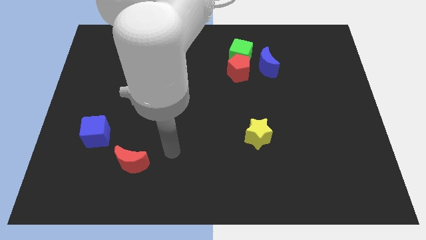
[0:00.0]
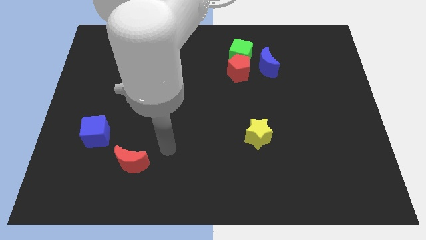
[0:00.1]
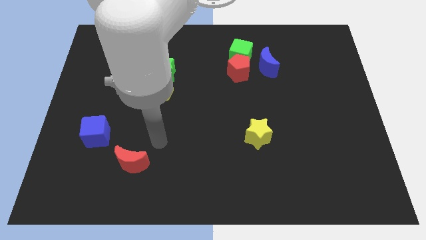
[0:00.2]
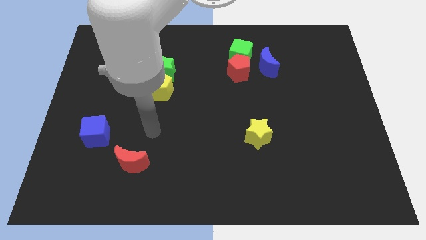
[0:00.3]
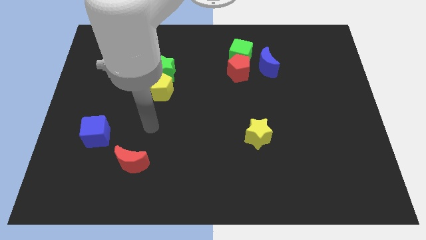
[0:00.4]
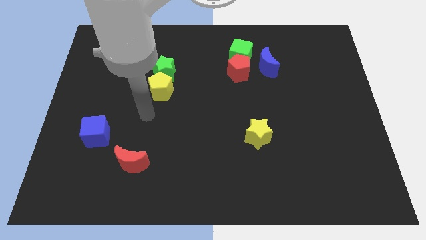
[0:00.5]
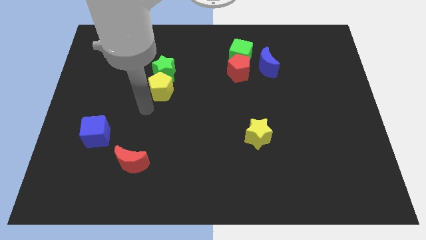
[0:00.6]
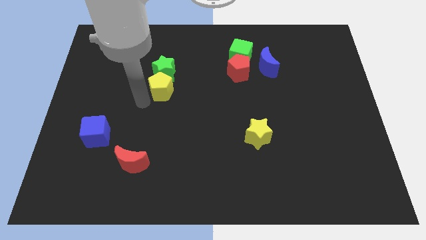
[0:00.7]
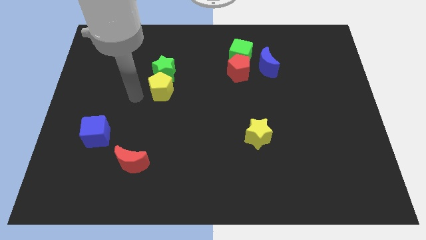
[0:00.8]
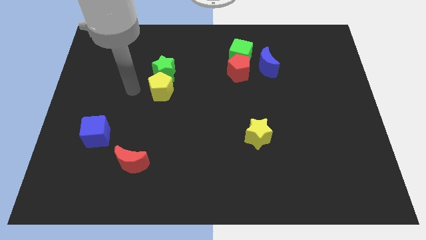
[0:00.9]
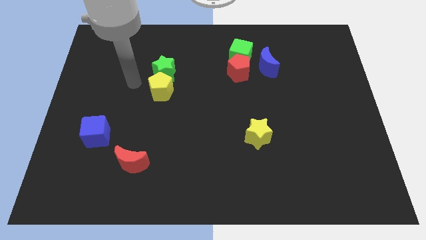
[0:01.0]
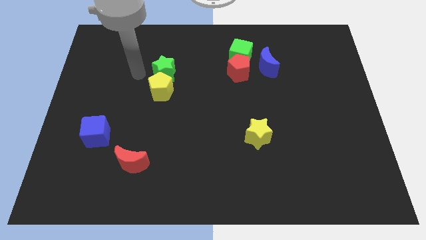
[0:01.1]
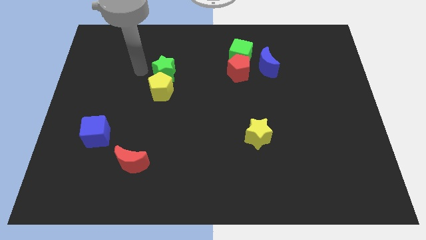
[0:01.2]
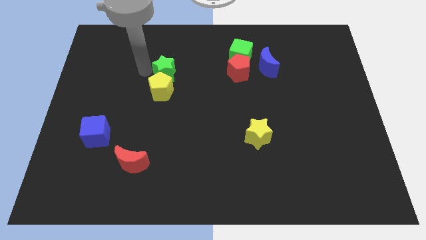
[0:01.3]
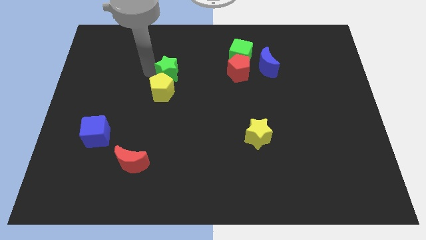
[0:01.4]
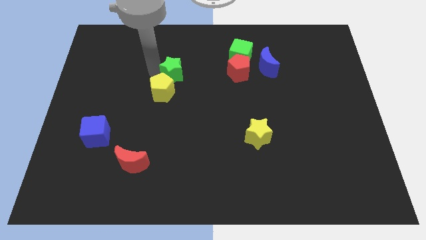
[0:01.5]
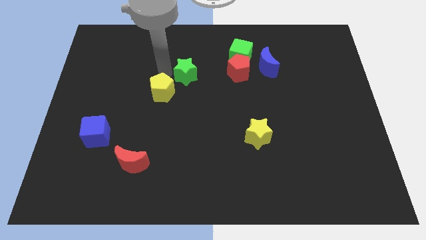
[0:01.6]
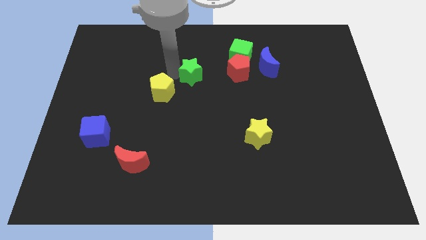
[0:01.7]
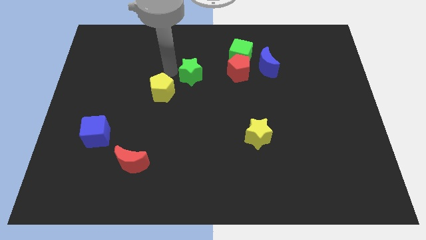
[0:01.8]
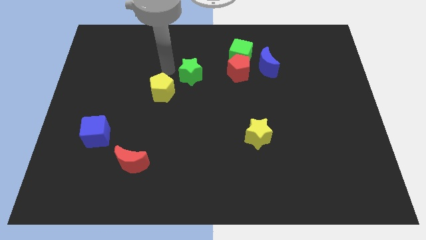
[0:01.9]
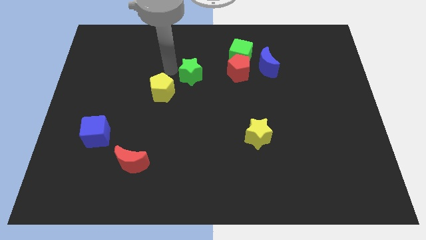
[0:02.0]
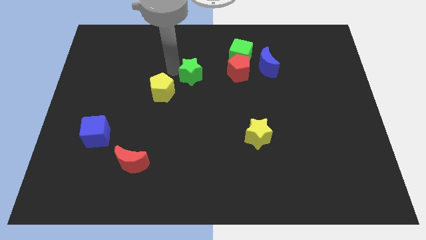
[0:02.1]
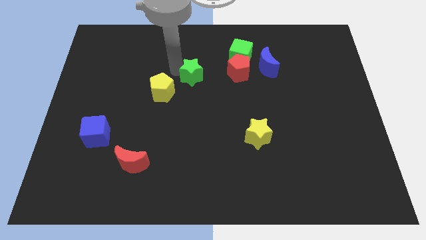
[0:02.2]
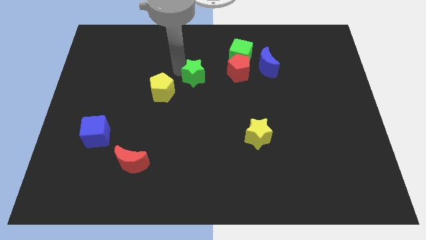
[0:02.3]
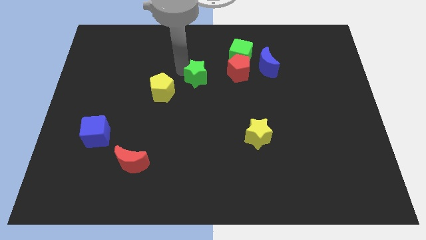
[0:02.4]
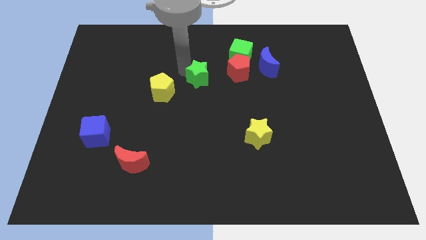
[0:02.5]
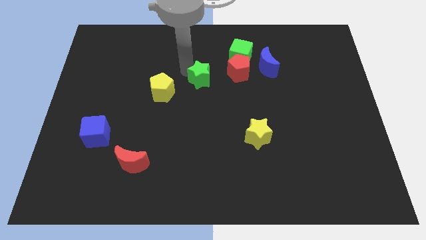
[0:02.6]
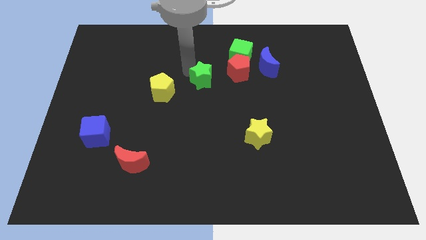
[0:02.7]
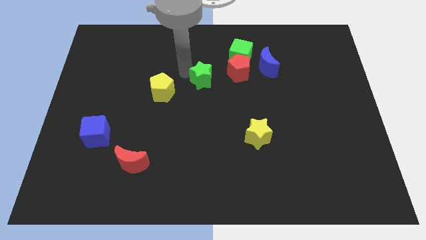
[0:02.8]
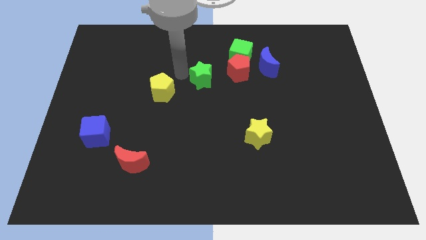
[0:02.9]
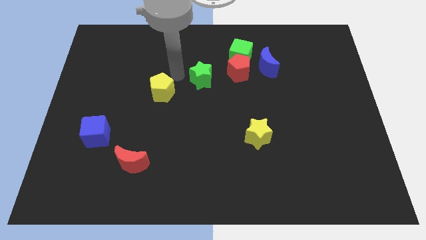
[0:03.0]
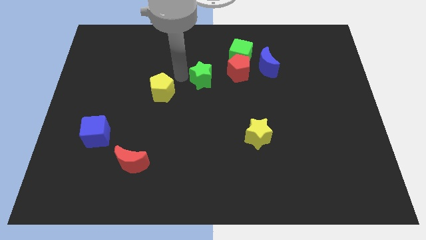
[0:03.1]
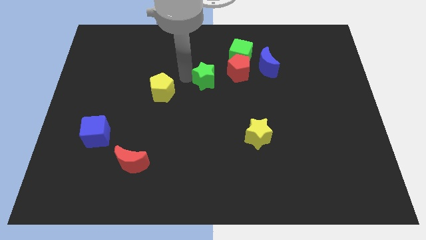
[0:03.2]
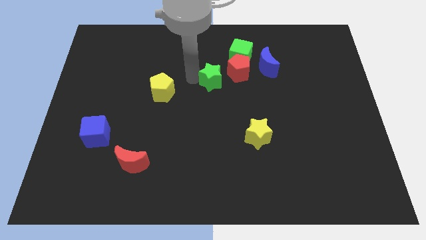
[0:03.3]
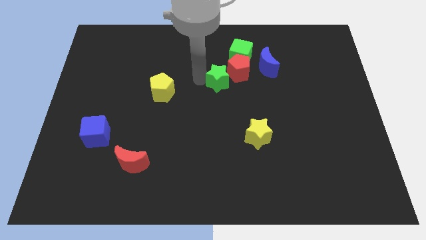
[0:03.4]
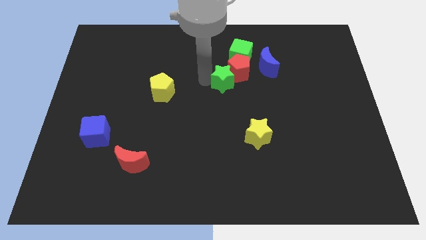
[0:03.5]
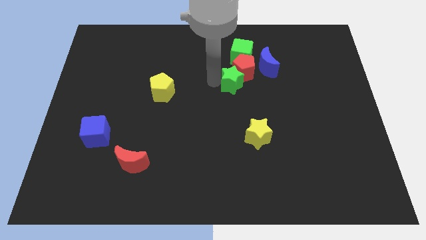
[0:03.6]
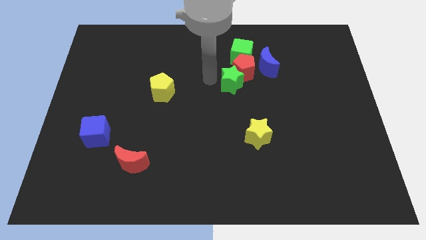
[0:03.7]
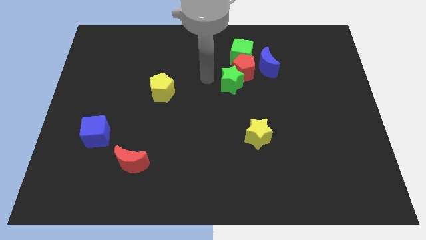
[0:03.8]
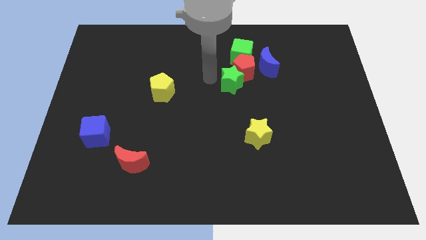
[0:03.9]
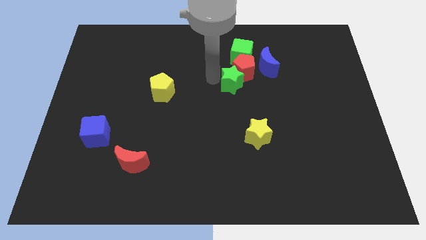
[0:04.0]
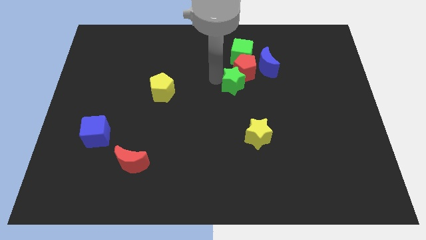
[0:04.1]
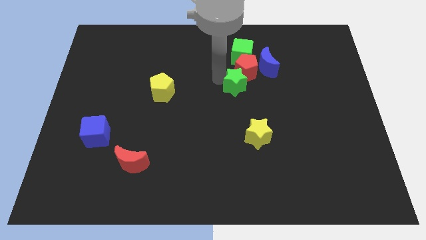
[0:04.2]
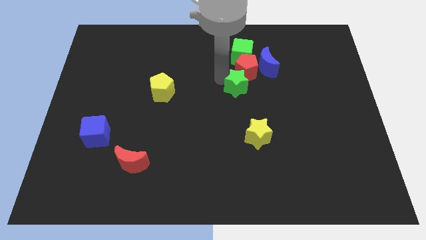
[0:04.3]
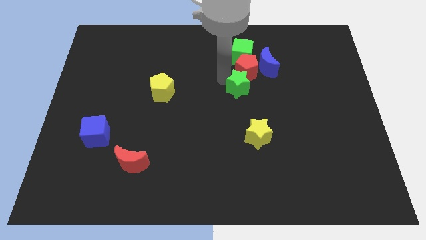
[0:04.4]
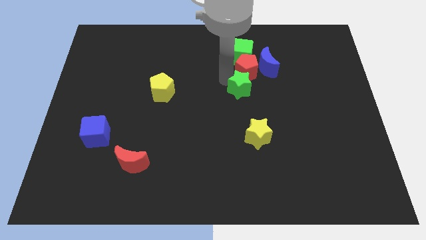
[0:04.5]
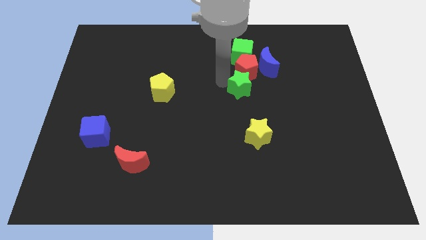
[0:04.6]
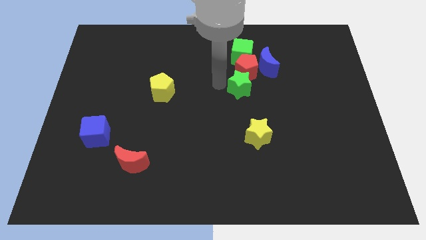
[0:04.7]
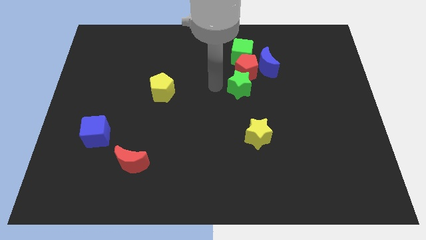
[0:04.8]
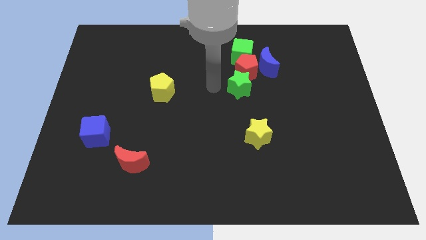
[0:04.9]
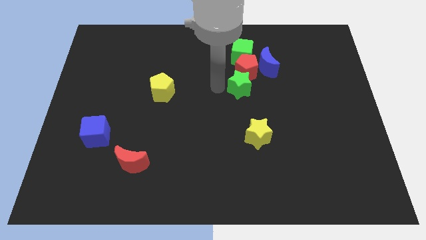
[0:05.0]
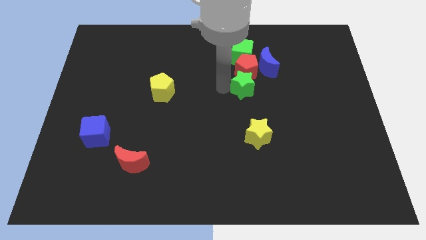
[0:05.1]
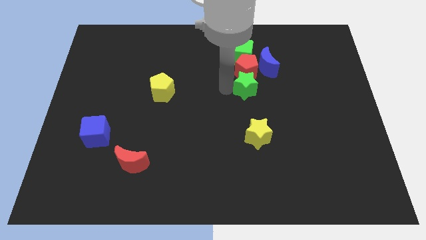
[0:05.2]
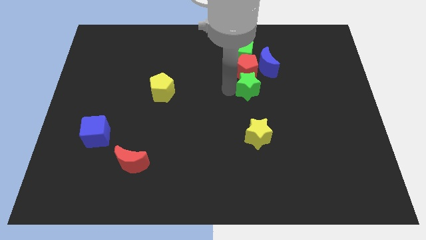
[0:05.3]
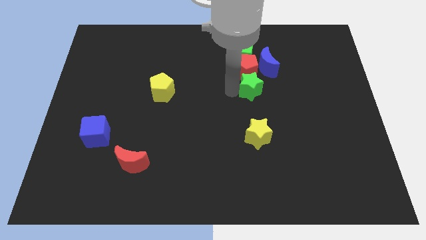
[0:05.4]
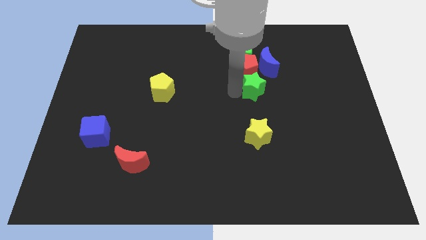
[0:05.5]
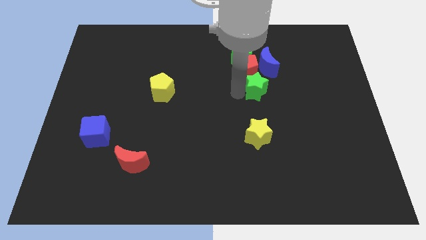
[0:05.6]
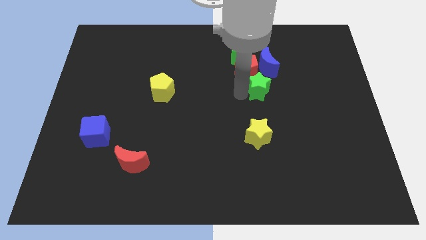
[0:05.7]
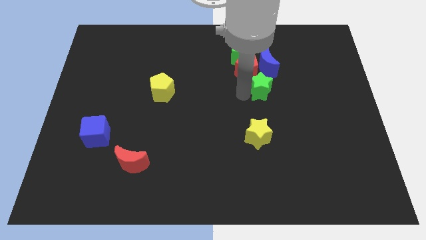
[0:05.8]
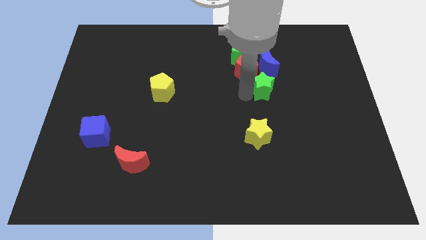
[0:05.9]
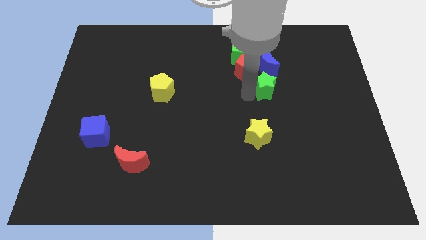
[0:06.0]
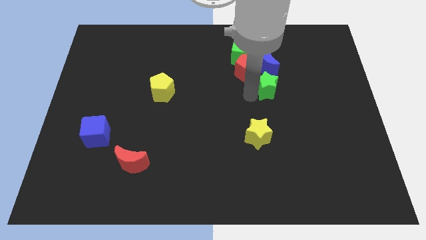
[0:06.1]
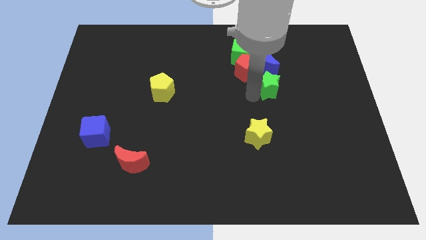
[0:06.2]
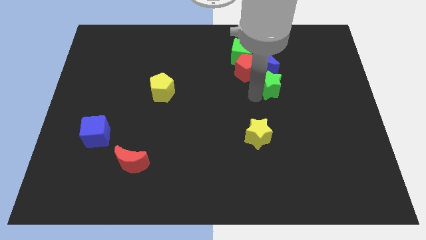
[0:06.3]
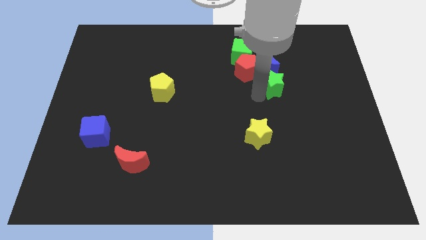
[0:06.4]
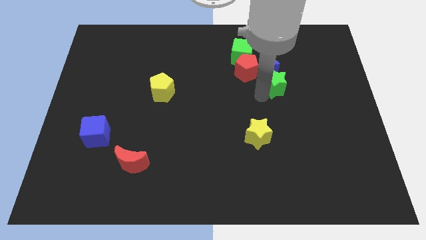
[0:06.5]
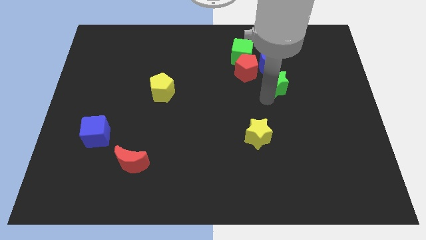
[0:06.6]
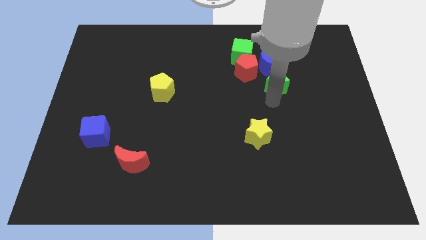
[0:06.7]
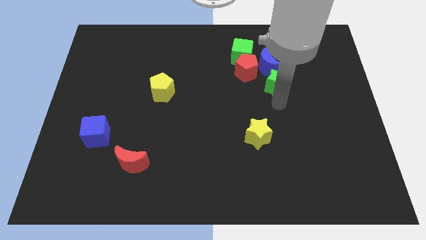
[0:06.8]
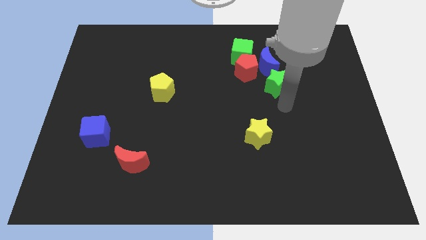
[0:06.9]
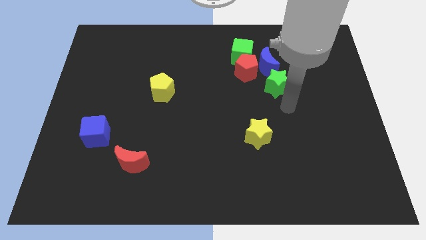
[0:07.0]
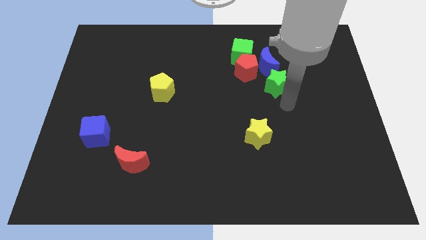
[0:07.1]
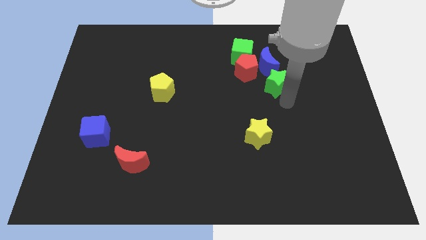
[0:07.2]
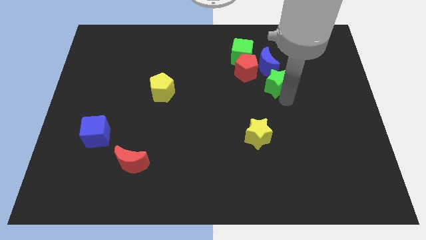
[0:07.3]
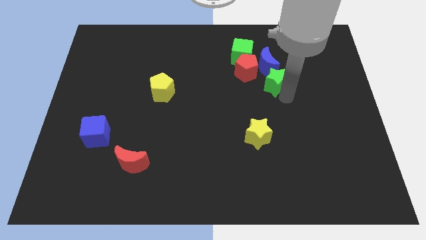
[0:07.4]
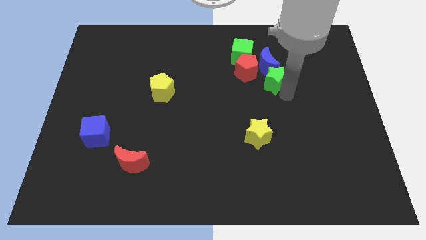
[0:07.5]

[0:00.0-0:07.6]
move the green star towards the blue moon
